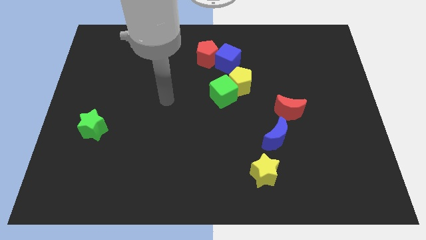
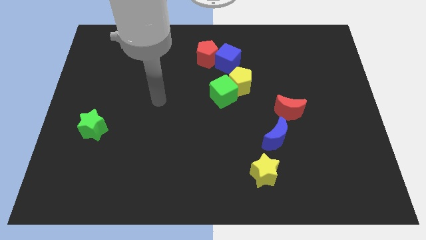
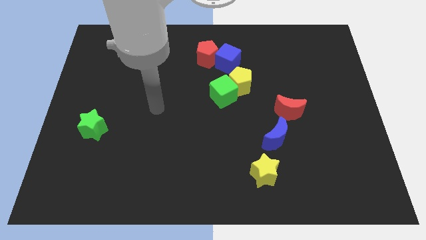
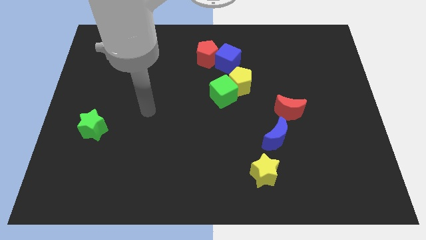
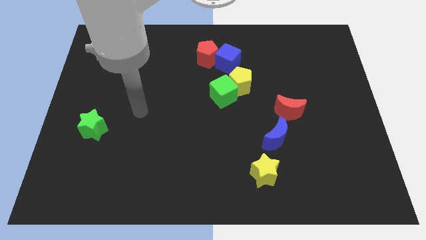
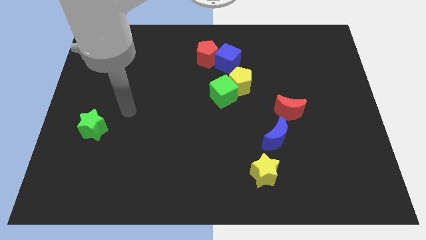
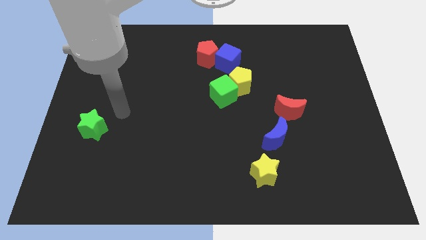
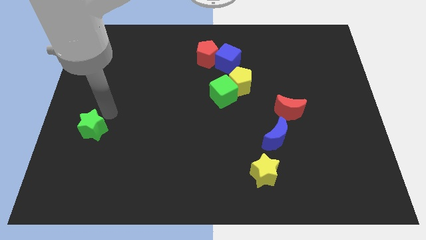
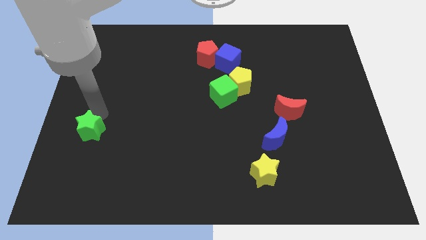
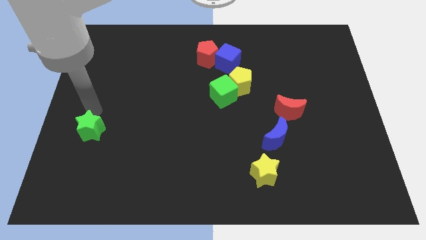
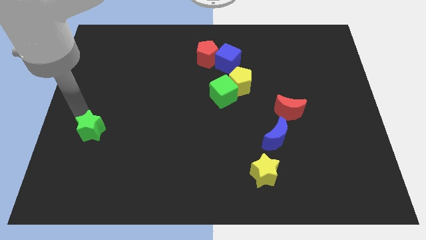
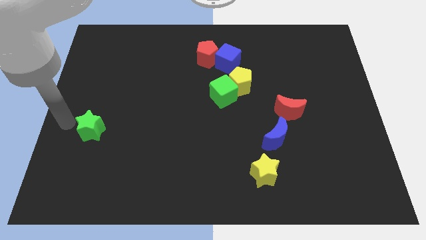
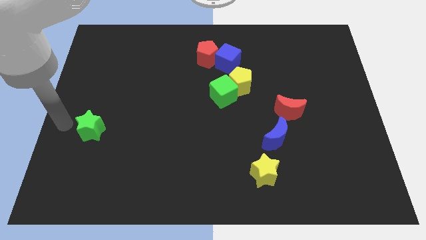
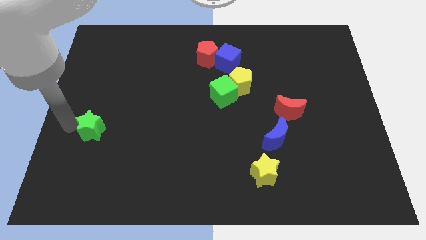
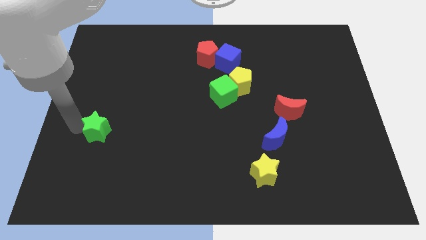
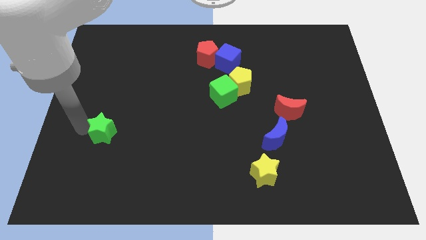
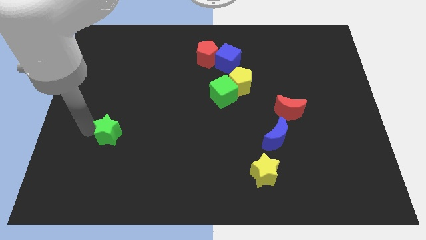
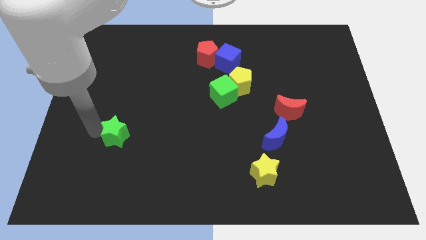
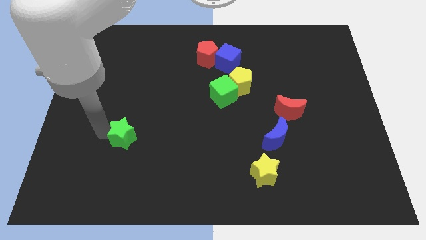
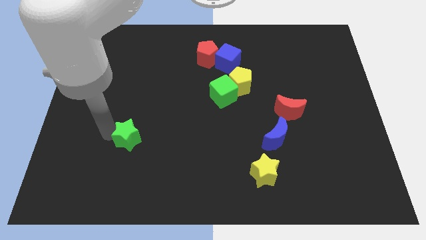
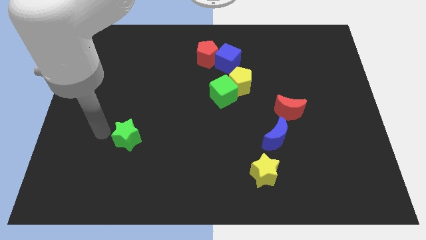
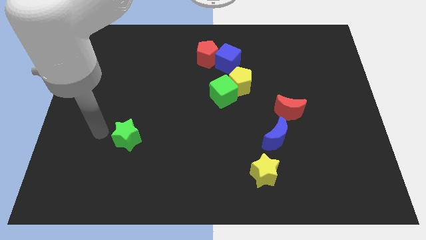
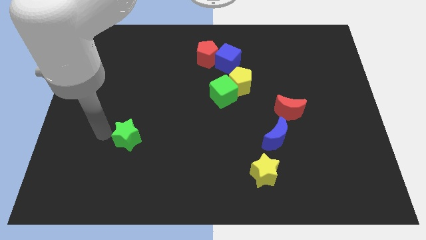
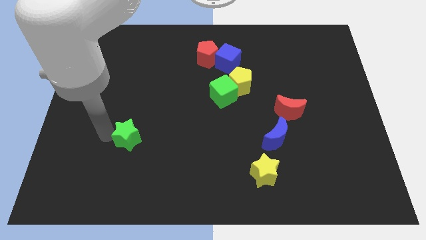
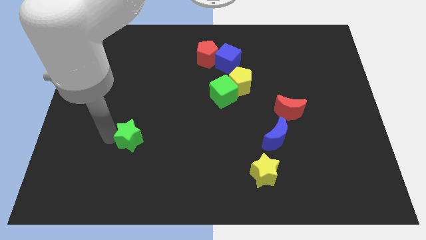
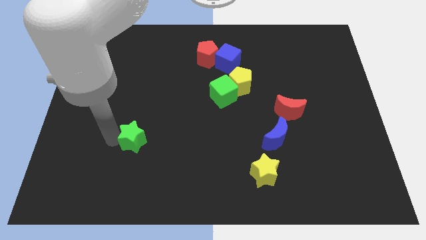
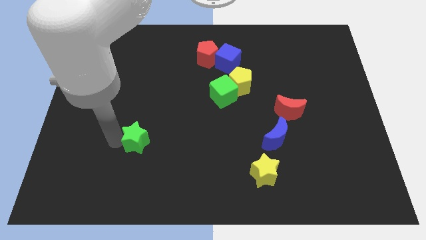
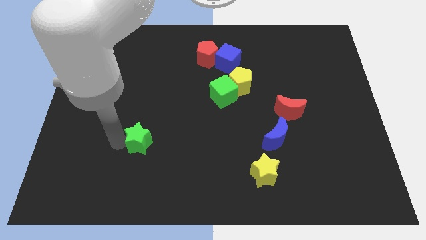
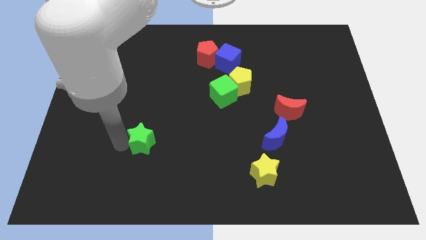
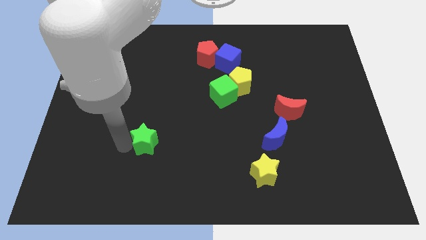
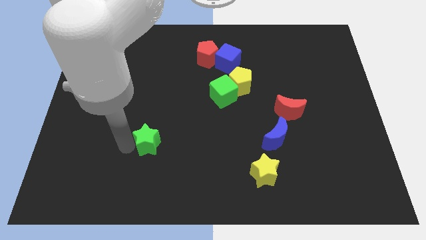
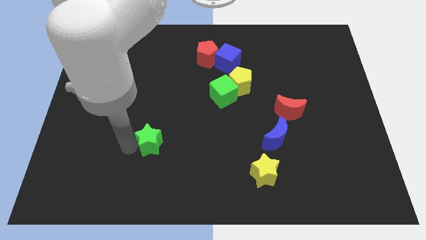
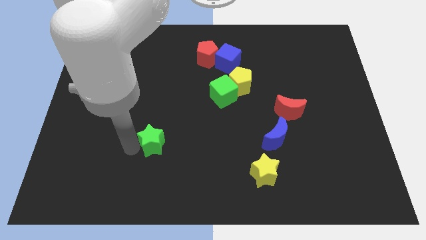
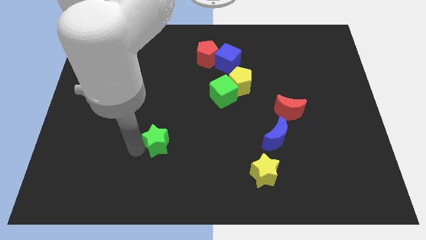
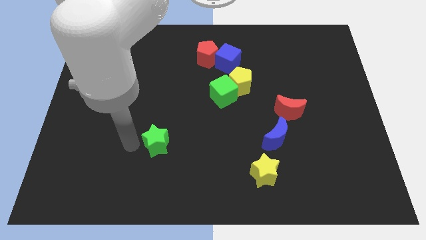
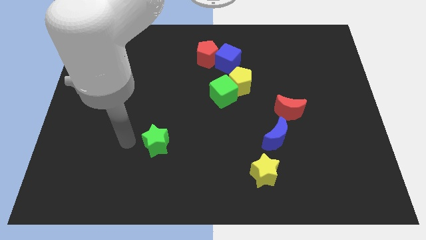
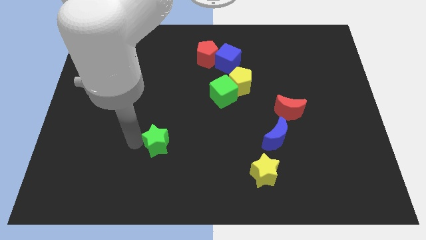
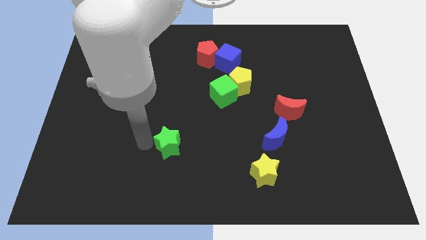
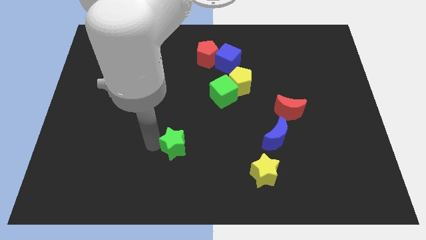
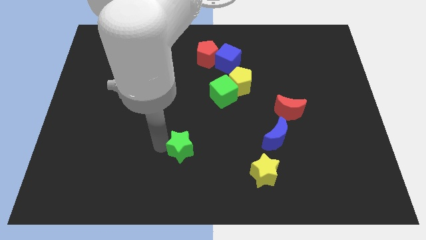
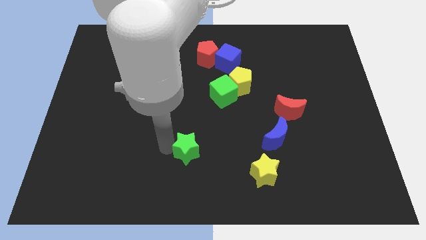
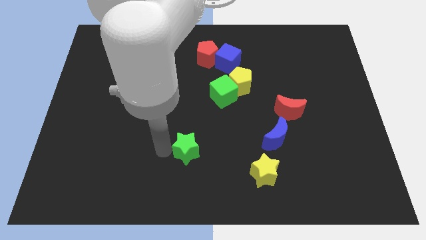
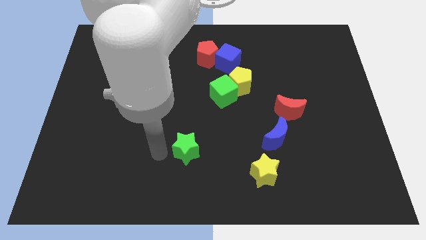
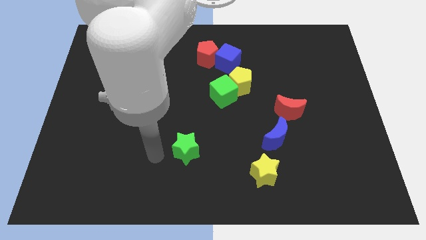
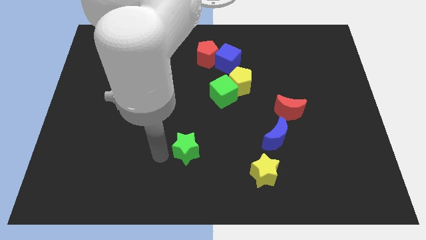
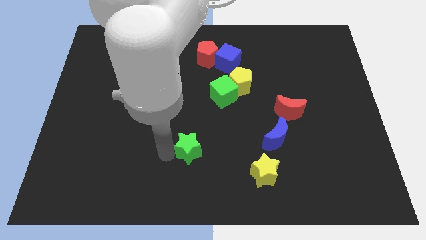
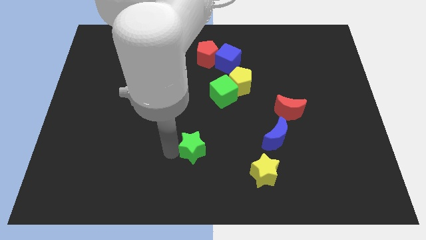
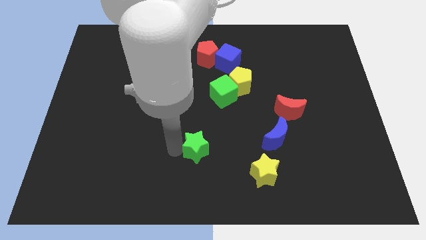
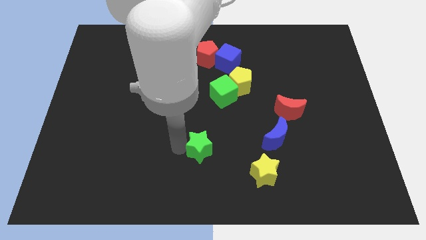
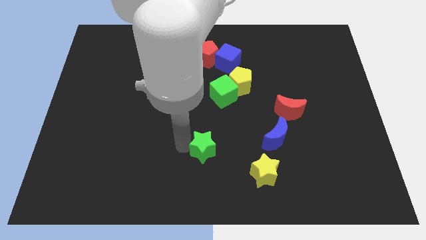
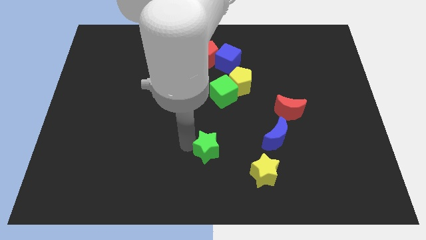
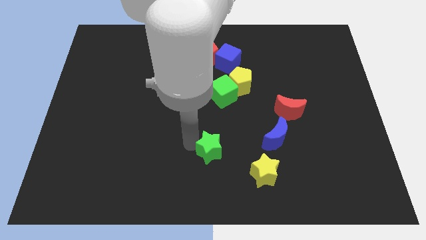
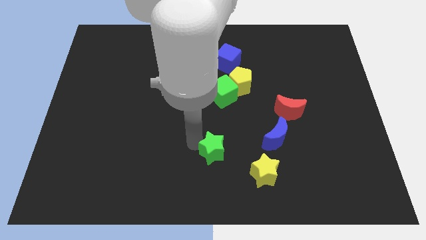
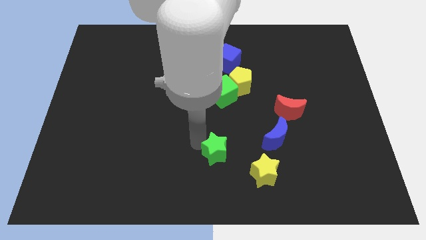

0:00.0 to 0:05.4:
put the green star to the top left of the yellow star

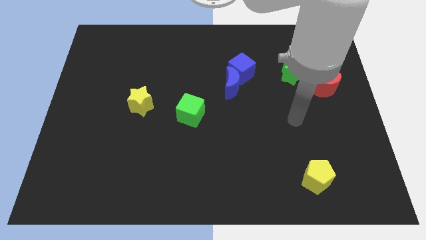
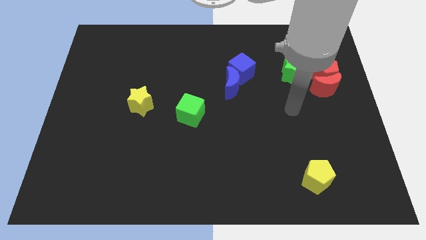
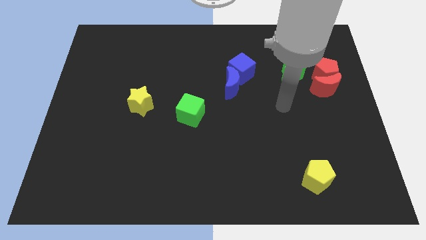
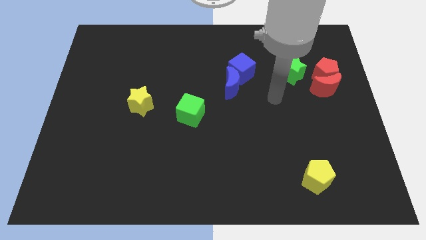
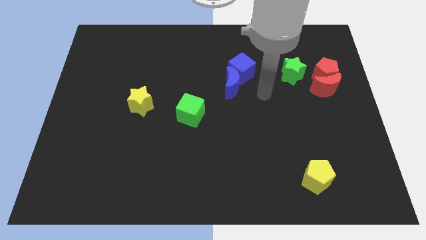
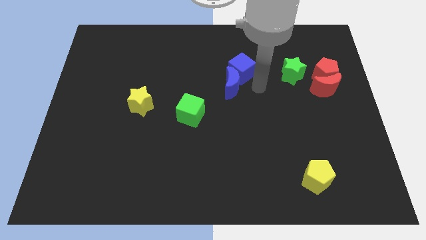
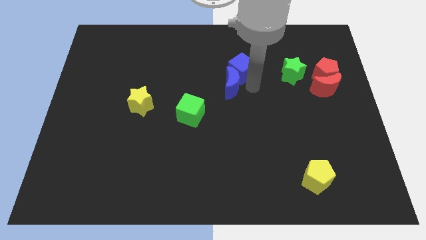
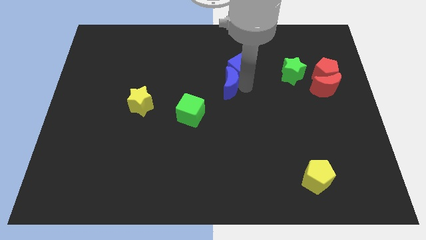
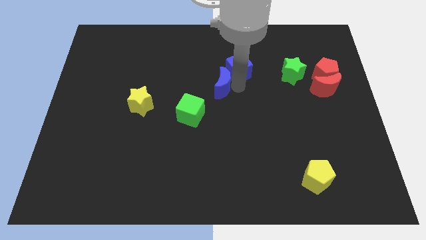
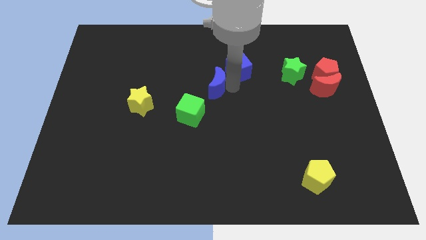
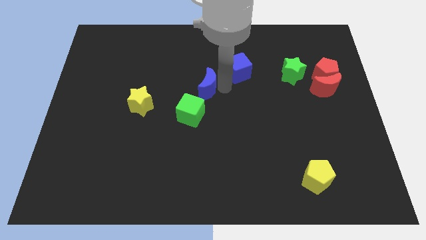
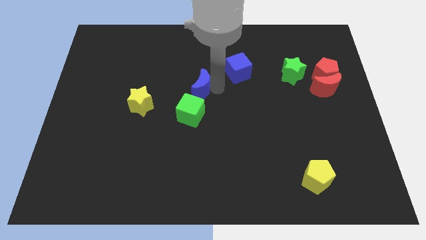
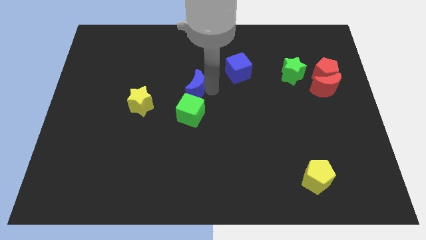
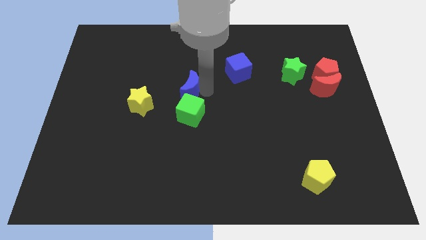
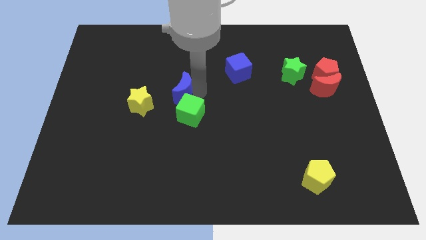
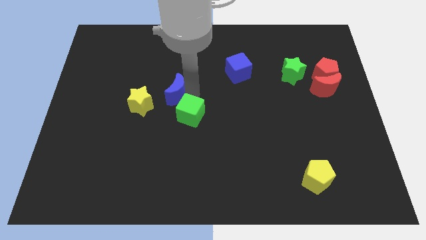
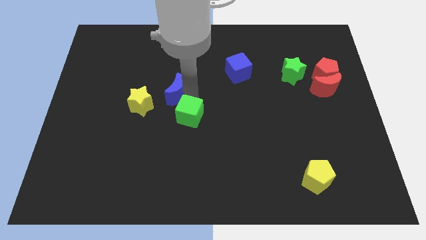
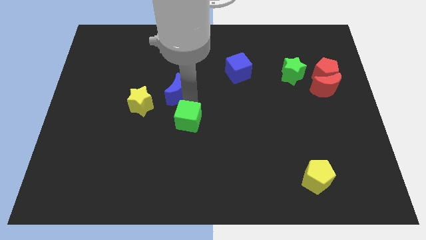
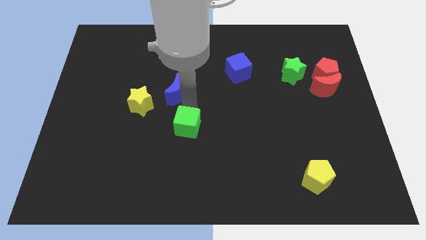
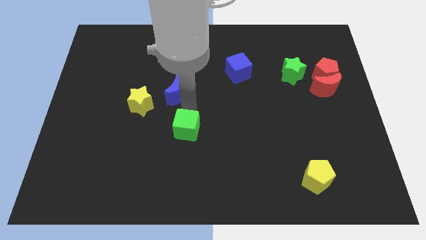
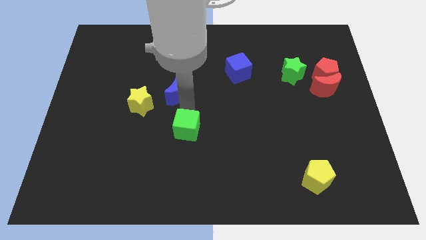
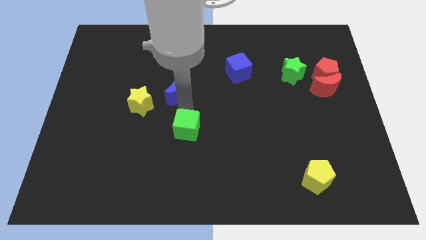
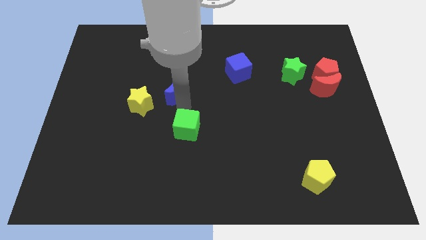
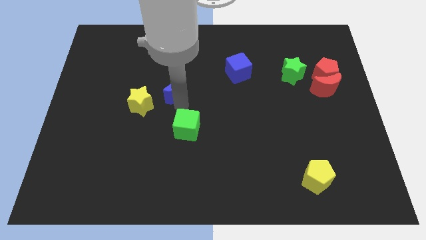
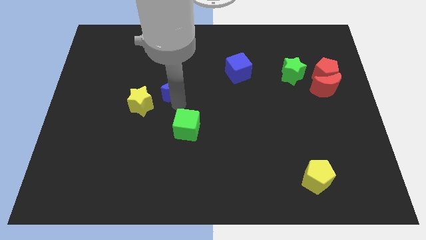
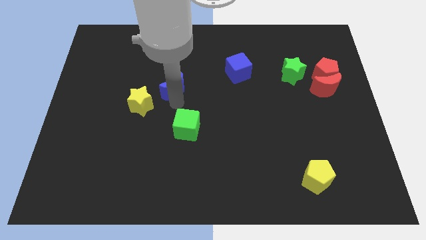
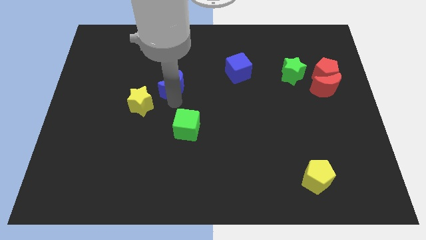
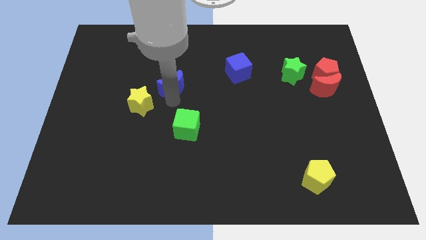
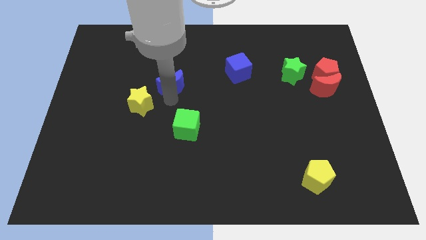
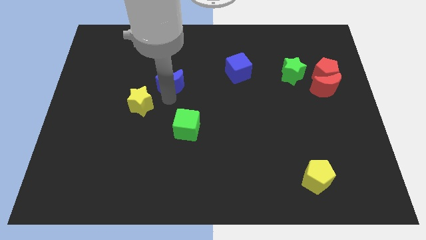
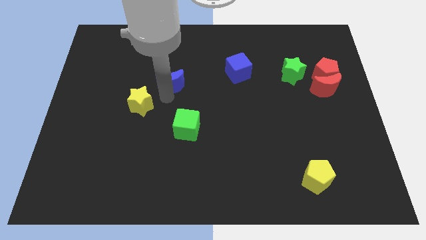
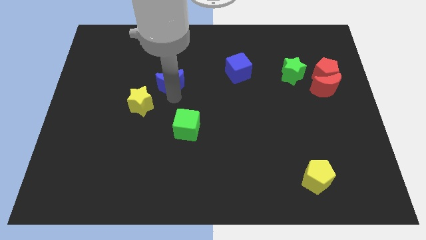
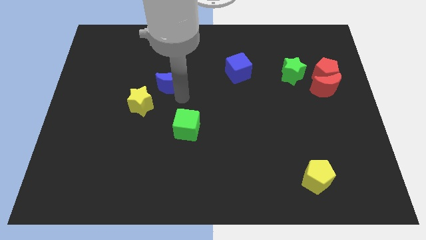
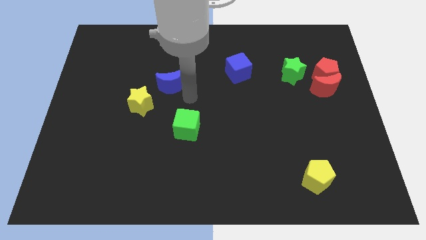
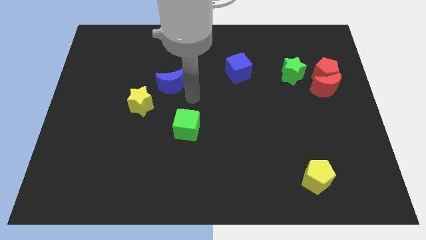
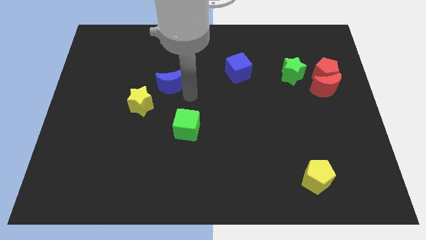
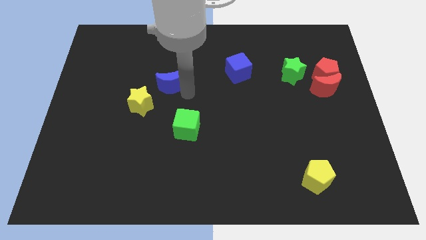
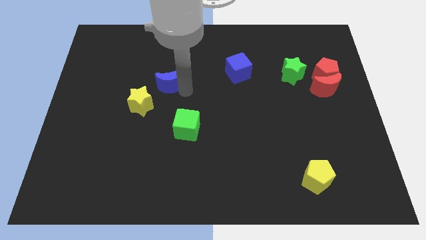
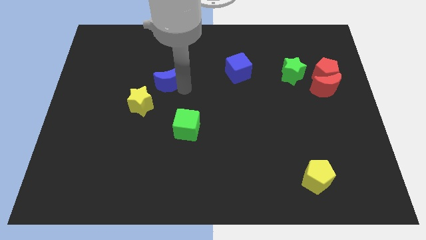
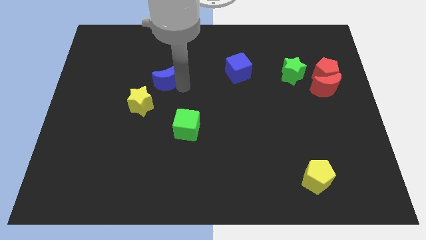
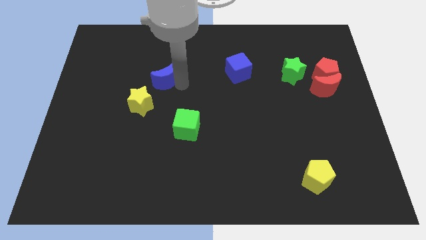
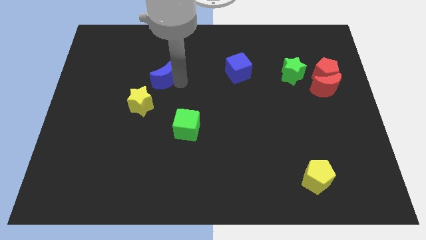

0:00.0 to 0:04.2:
put the blue moon above the yellow star
